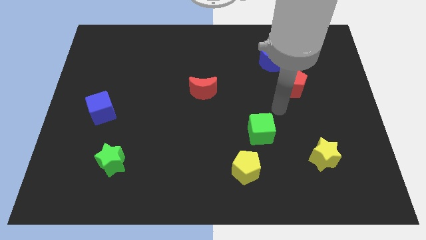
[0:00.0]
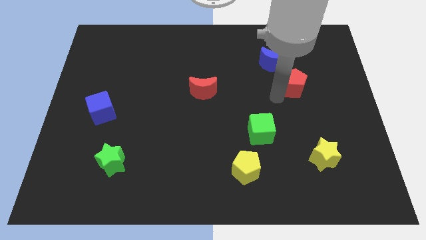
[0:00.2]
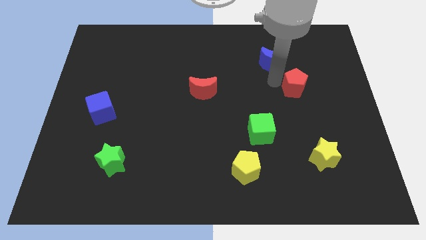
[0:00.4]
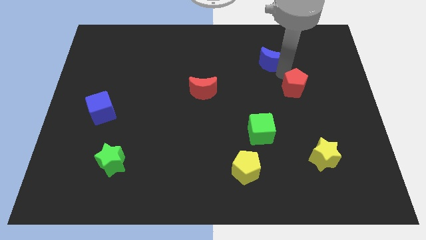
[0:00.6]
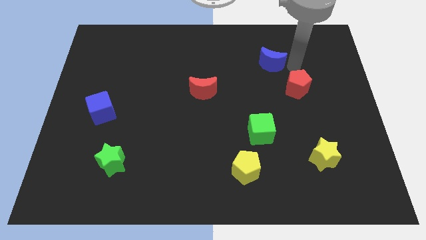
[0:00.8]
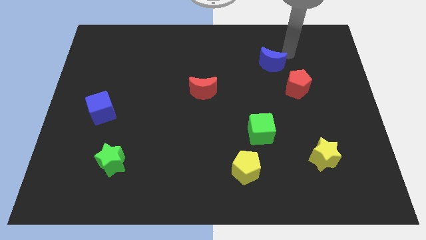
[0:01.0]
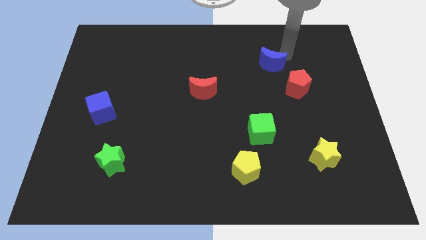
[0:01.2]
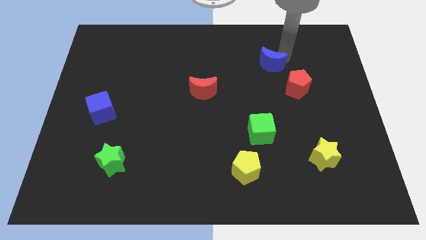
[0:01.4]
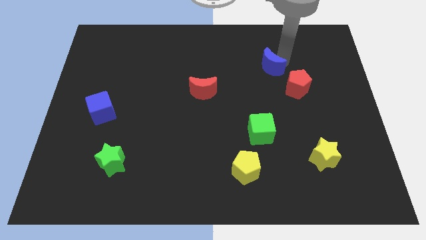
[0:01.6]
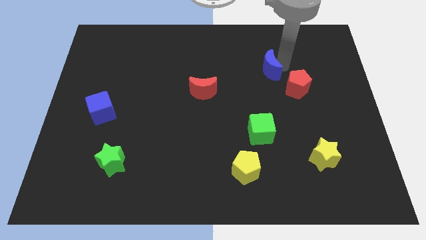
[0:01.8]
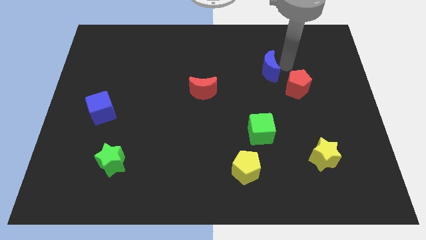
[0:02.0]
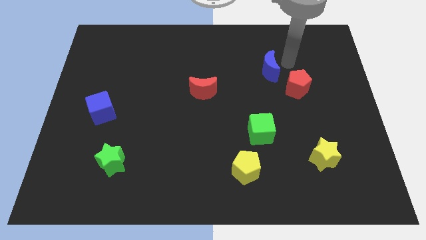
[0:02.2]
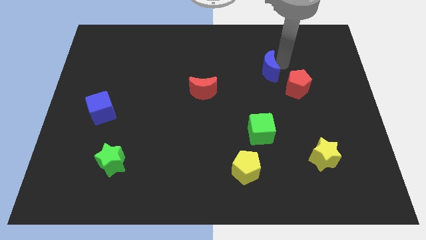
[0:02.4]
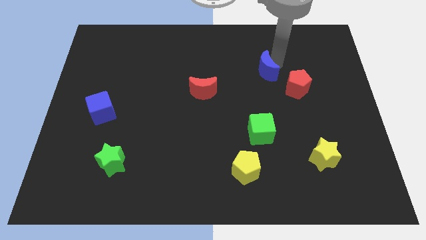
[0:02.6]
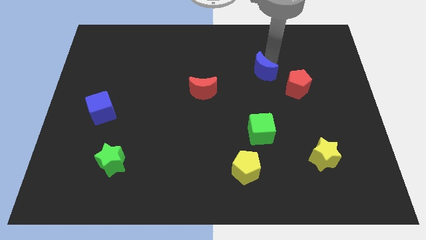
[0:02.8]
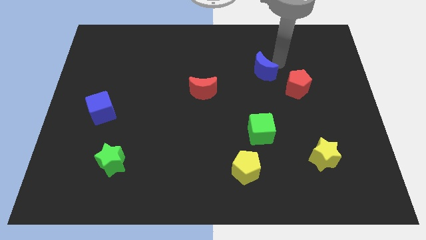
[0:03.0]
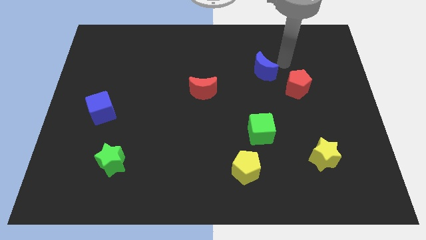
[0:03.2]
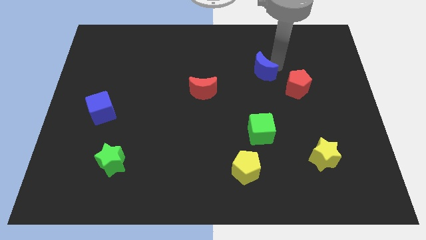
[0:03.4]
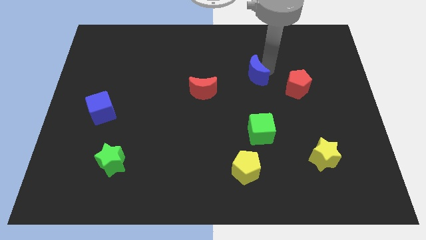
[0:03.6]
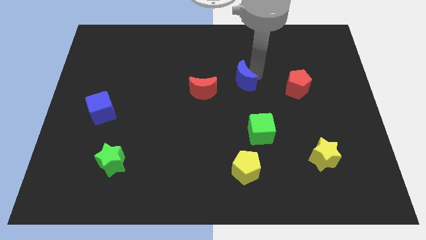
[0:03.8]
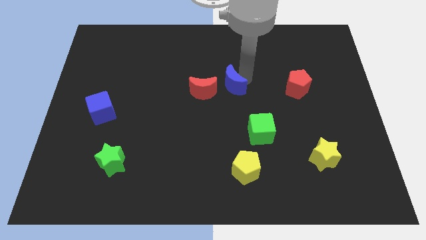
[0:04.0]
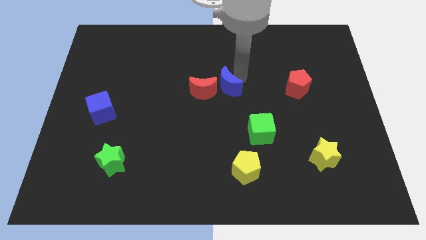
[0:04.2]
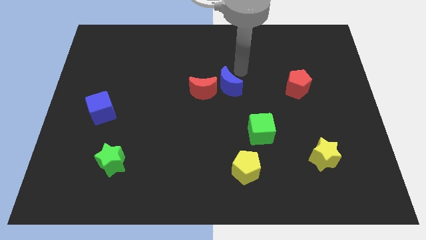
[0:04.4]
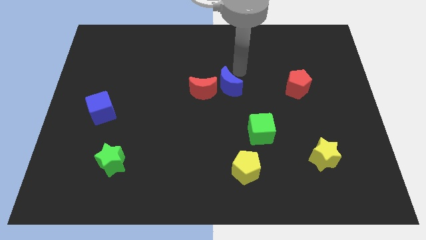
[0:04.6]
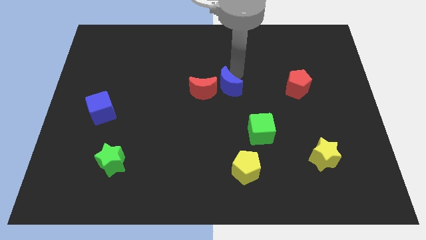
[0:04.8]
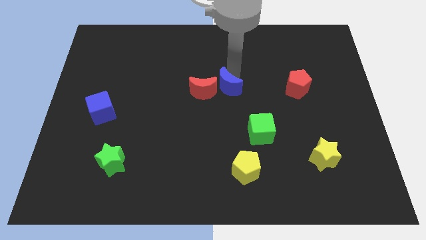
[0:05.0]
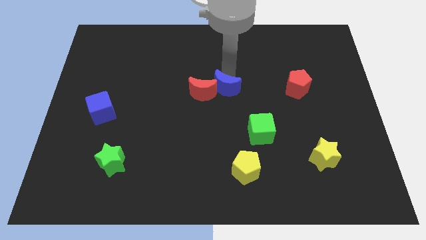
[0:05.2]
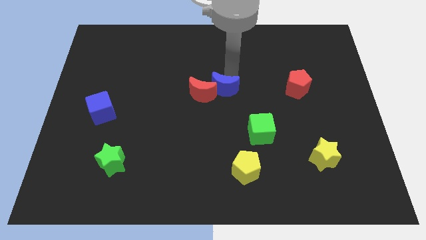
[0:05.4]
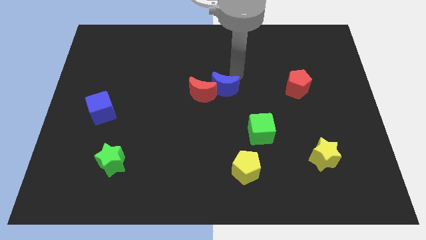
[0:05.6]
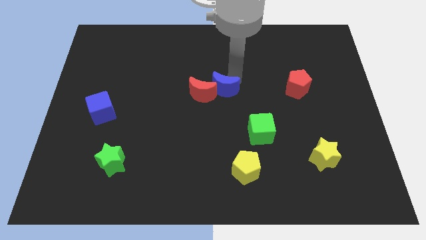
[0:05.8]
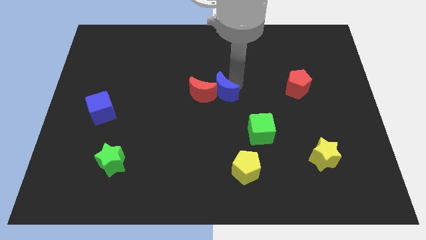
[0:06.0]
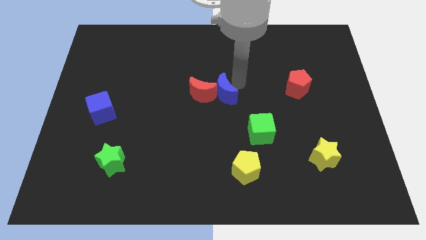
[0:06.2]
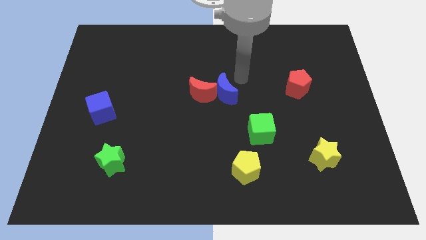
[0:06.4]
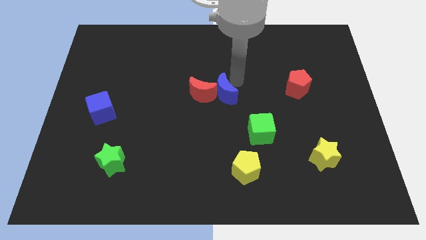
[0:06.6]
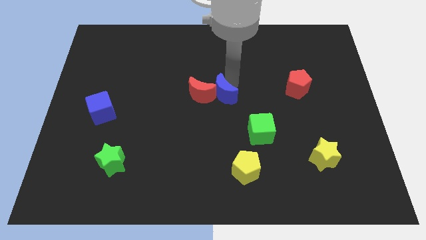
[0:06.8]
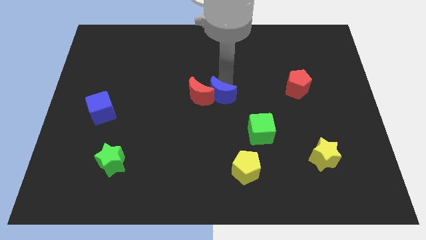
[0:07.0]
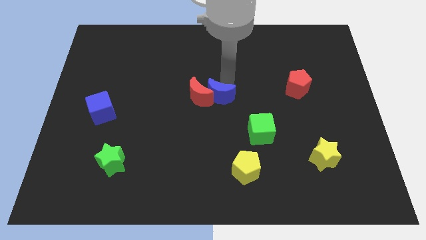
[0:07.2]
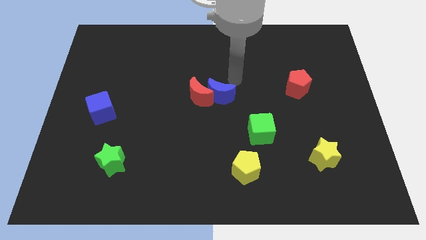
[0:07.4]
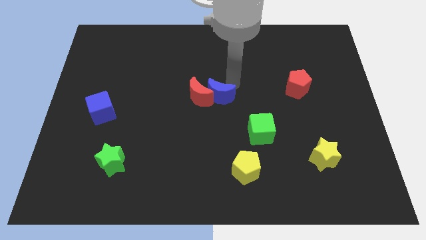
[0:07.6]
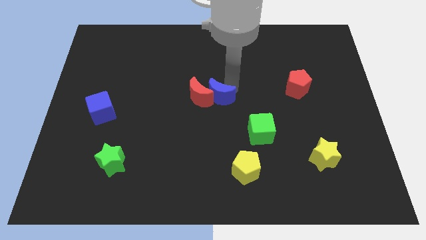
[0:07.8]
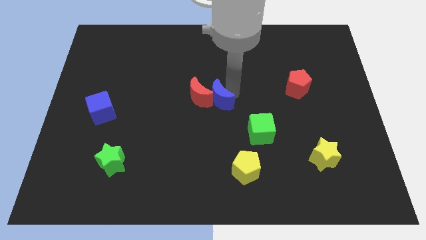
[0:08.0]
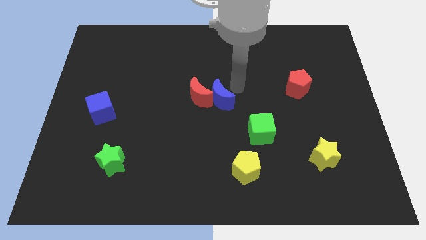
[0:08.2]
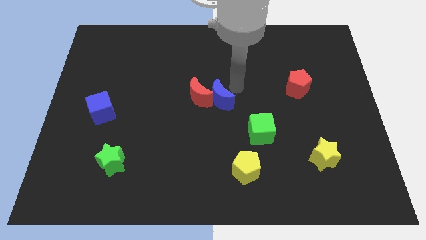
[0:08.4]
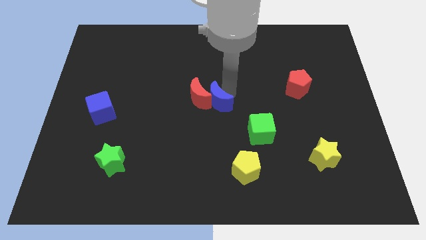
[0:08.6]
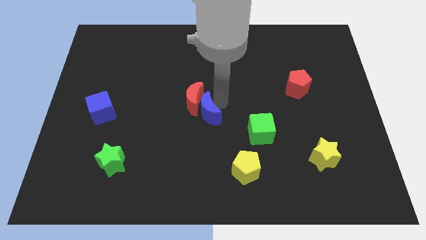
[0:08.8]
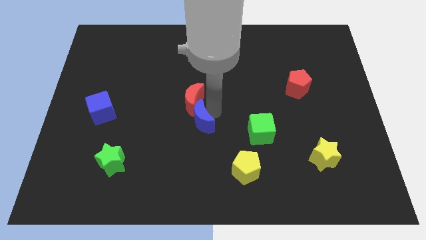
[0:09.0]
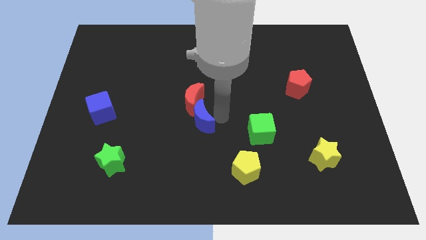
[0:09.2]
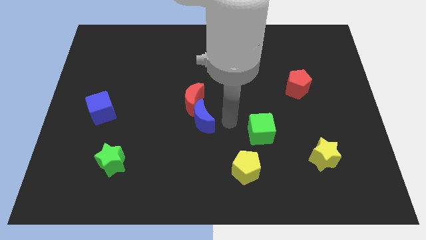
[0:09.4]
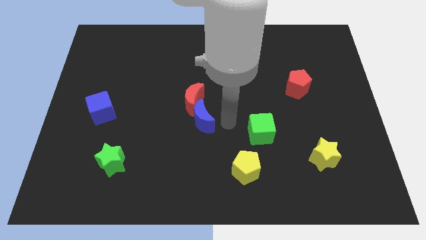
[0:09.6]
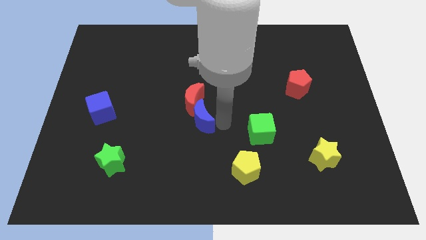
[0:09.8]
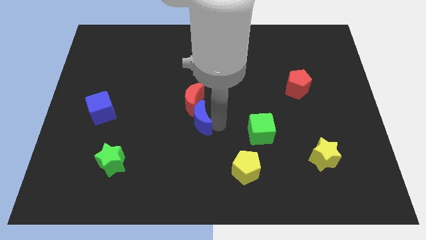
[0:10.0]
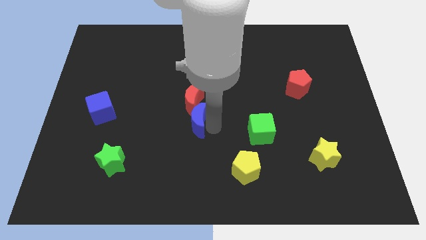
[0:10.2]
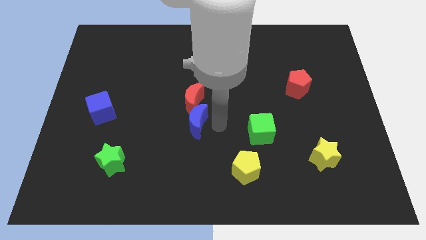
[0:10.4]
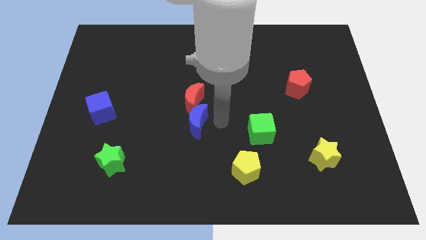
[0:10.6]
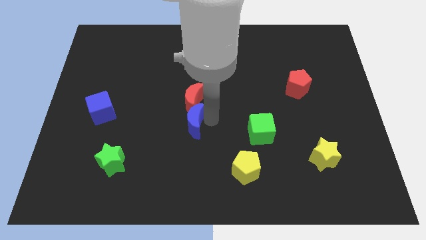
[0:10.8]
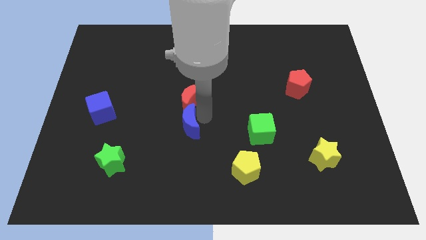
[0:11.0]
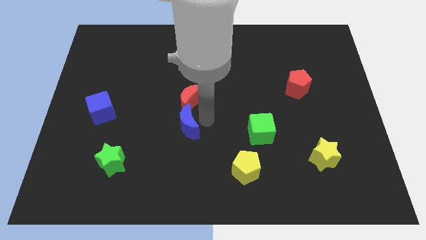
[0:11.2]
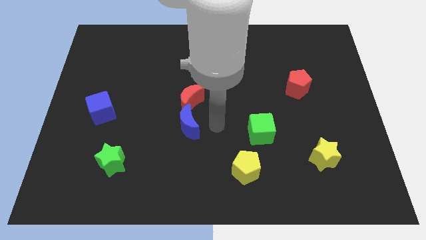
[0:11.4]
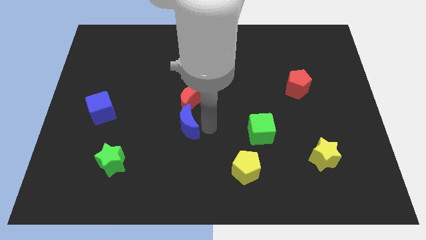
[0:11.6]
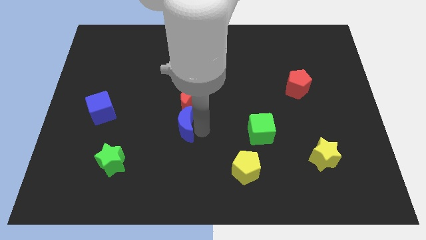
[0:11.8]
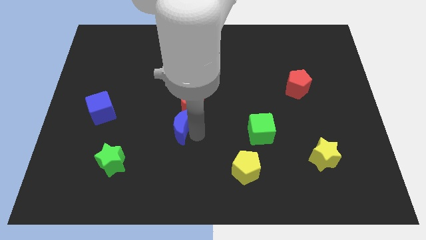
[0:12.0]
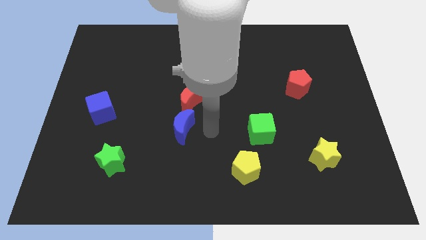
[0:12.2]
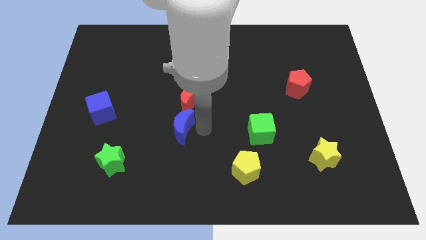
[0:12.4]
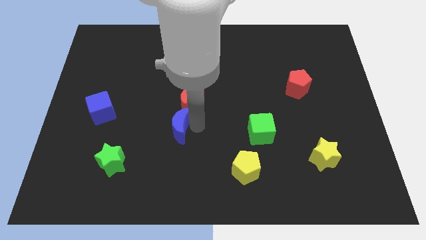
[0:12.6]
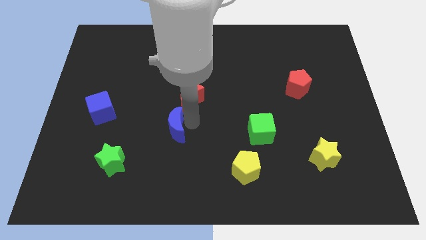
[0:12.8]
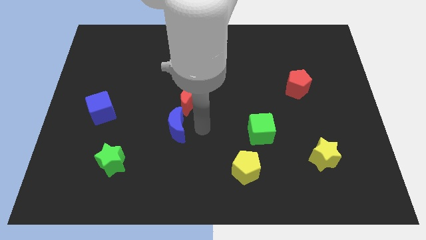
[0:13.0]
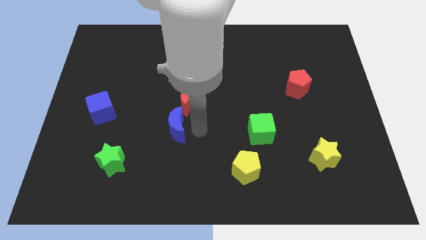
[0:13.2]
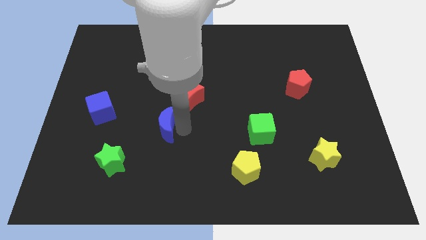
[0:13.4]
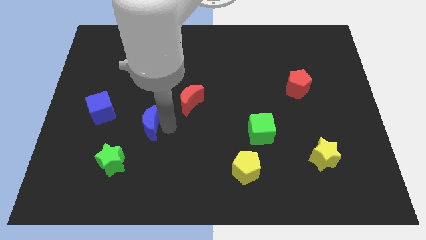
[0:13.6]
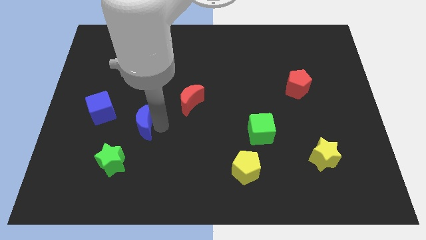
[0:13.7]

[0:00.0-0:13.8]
push the blue moon diagonally down and to the right of the blue cube

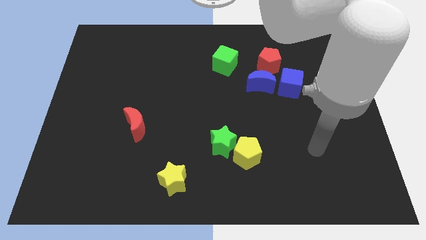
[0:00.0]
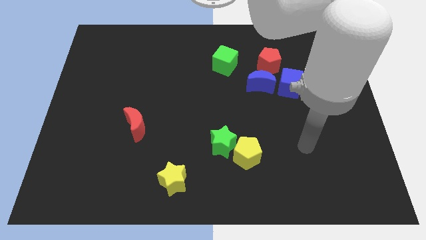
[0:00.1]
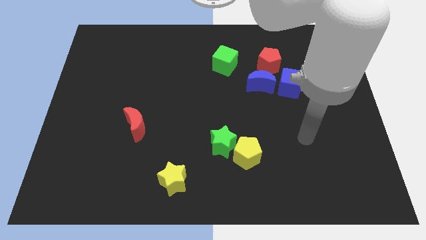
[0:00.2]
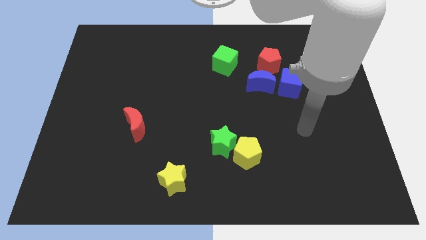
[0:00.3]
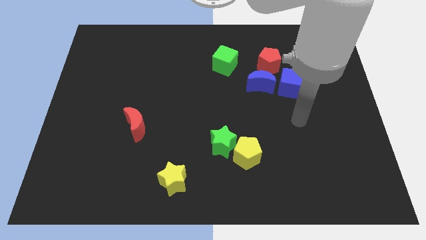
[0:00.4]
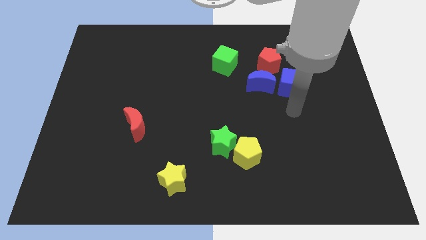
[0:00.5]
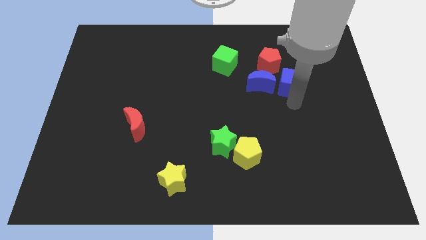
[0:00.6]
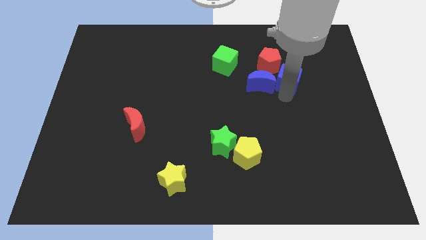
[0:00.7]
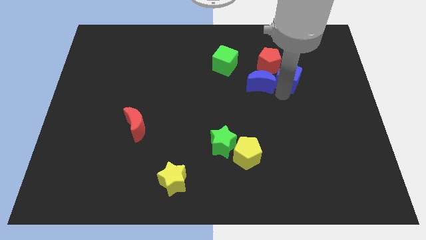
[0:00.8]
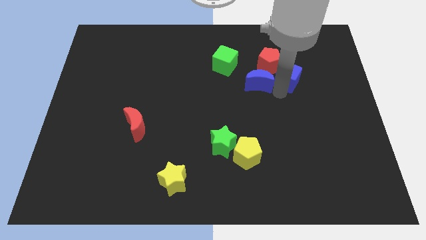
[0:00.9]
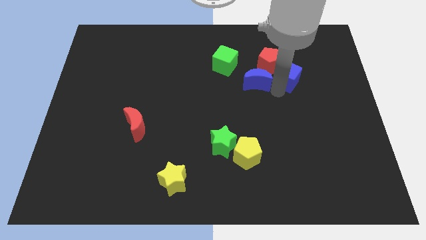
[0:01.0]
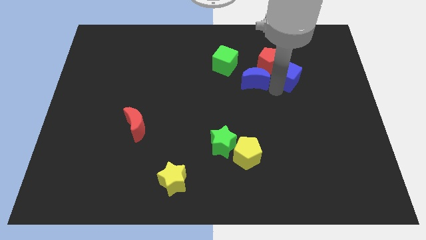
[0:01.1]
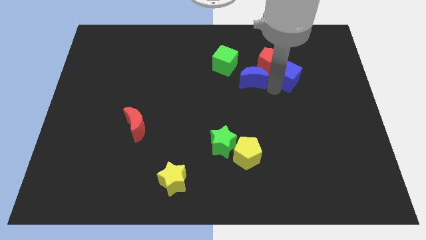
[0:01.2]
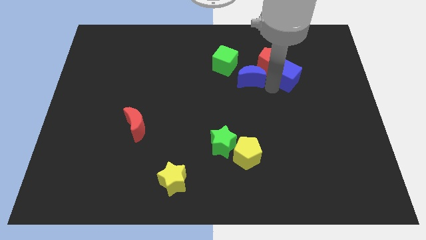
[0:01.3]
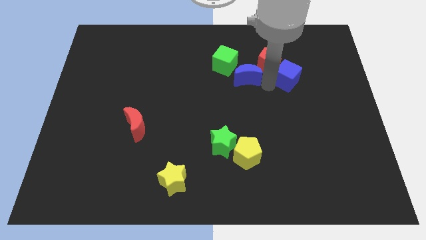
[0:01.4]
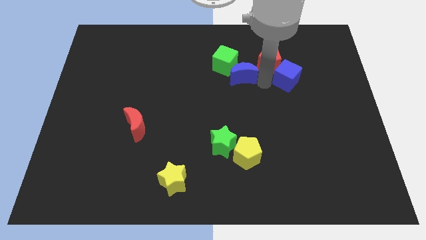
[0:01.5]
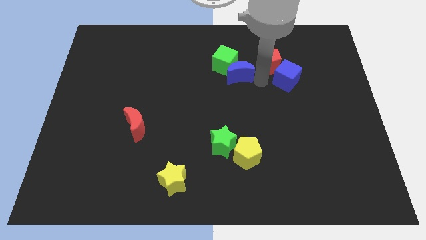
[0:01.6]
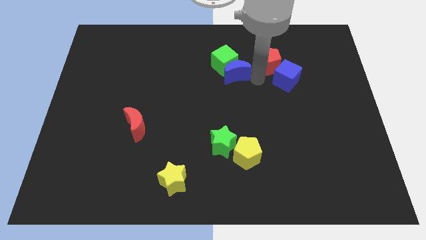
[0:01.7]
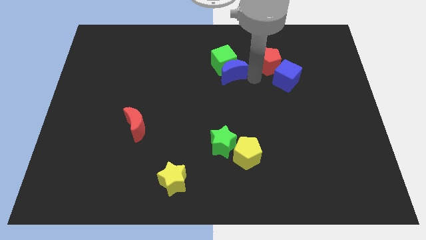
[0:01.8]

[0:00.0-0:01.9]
put the blue moon to the bottom left side of the green cube
